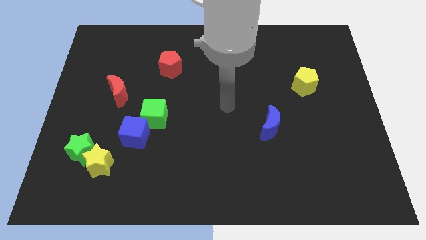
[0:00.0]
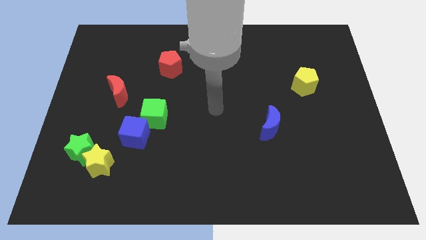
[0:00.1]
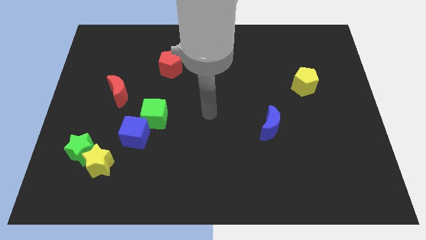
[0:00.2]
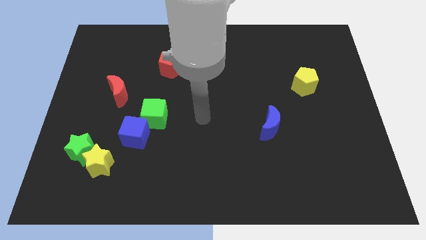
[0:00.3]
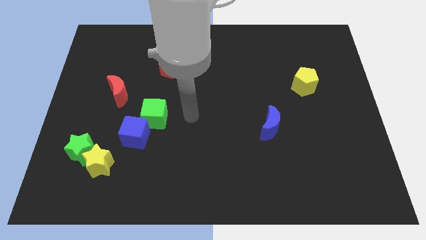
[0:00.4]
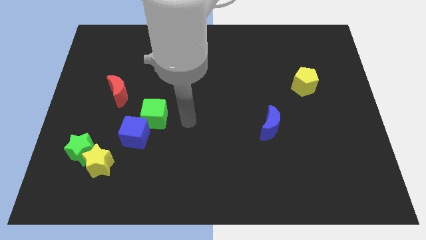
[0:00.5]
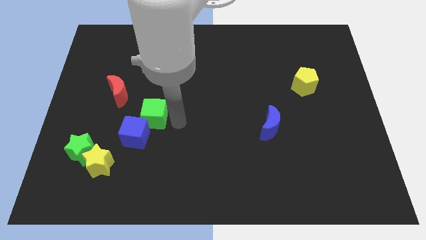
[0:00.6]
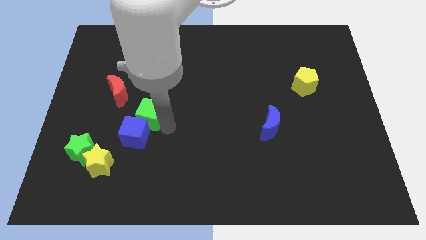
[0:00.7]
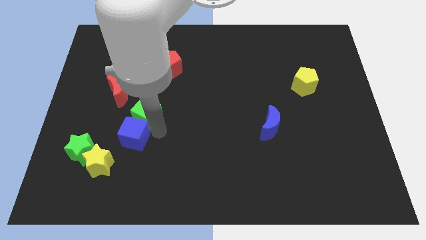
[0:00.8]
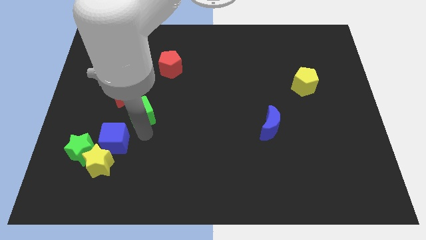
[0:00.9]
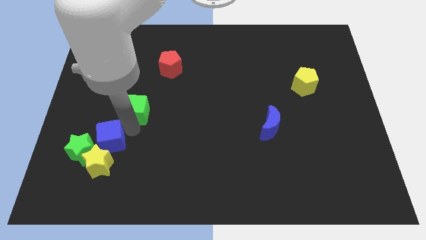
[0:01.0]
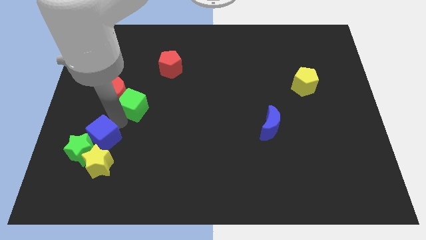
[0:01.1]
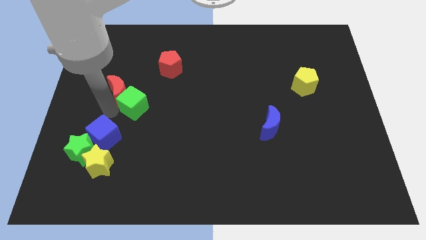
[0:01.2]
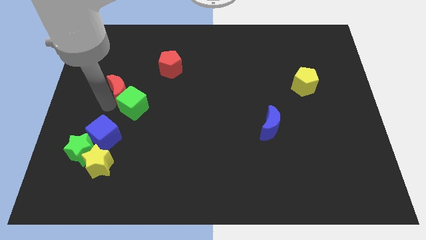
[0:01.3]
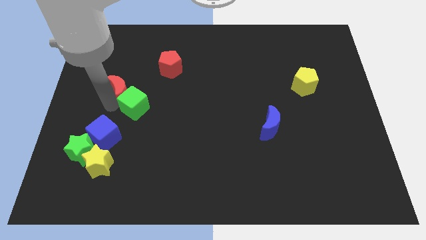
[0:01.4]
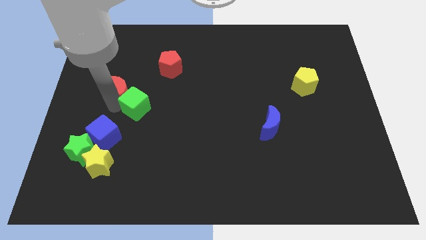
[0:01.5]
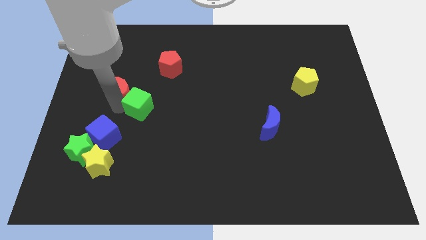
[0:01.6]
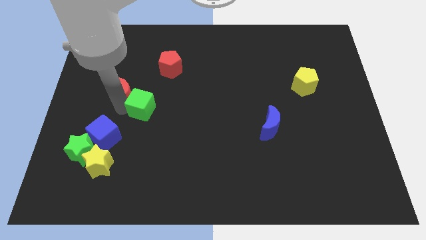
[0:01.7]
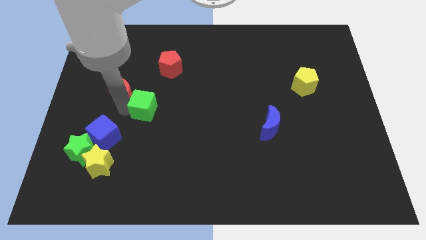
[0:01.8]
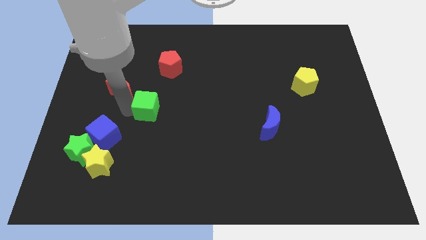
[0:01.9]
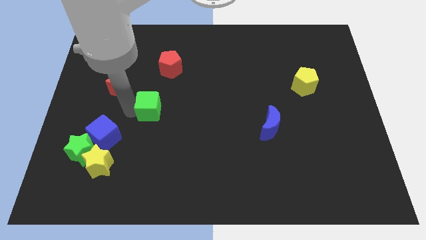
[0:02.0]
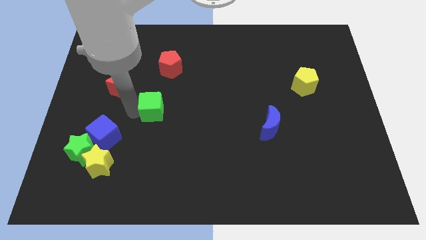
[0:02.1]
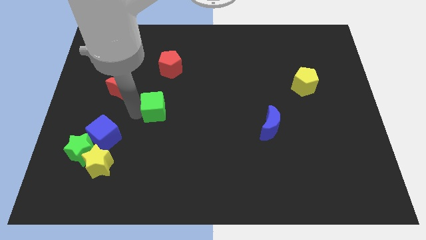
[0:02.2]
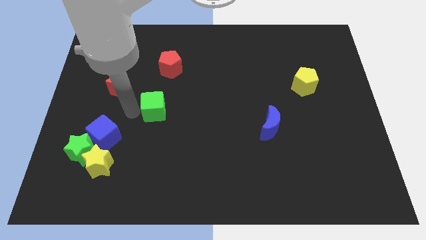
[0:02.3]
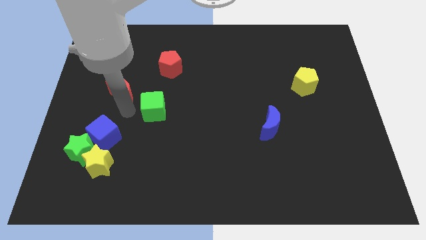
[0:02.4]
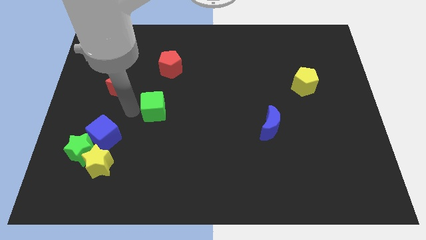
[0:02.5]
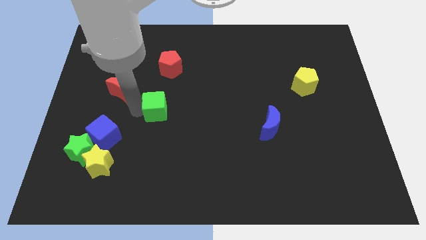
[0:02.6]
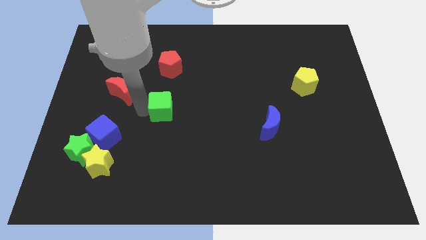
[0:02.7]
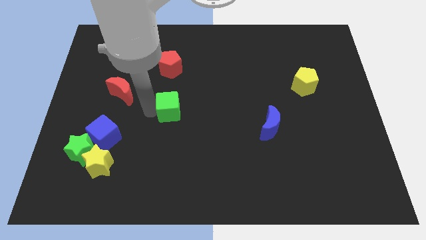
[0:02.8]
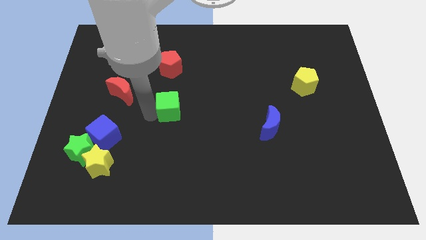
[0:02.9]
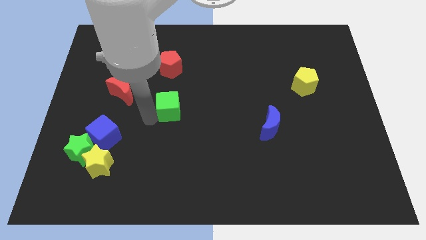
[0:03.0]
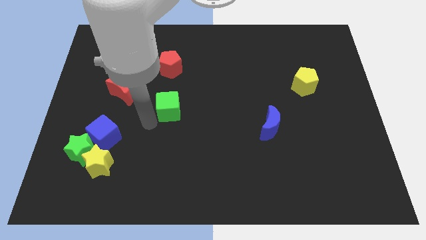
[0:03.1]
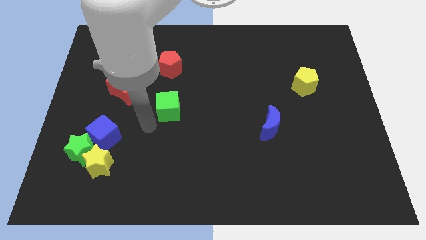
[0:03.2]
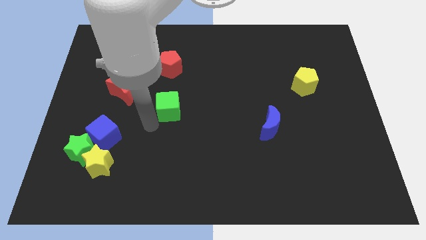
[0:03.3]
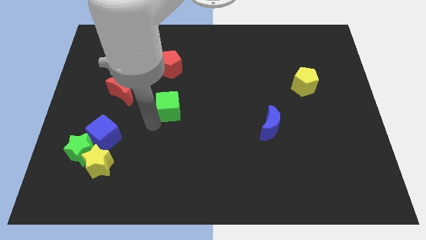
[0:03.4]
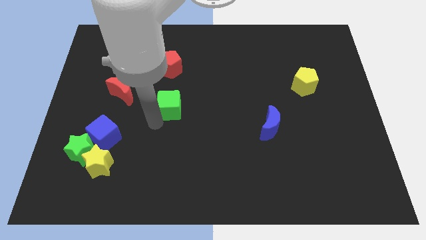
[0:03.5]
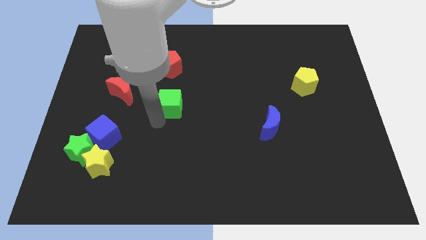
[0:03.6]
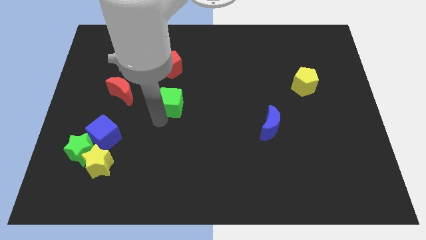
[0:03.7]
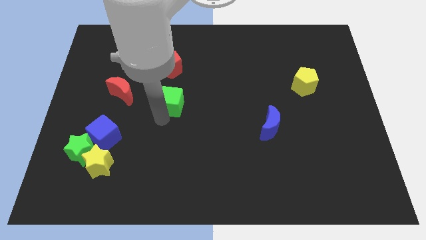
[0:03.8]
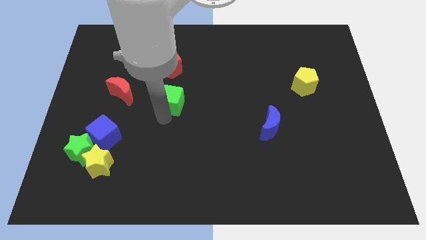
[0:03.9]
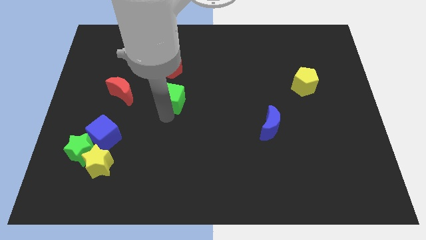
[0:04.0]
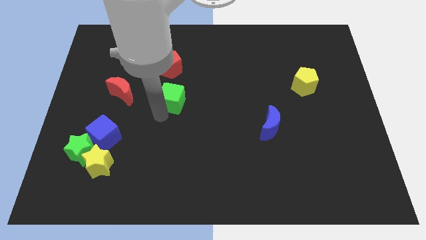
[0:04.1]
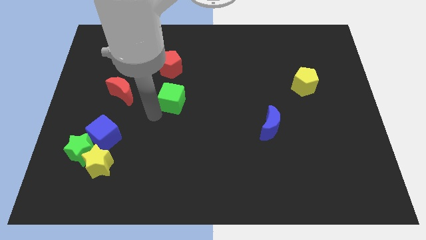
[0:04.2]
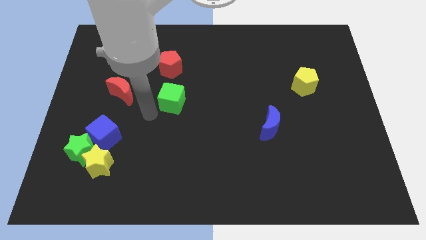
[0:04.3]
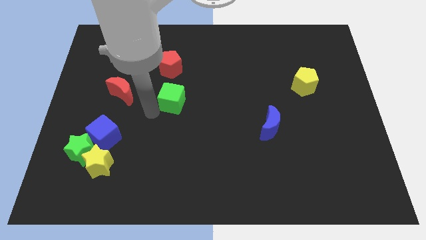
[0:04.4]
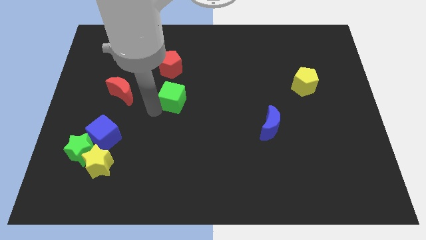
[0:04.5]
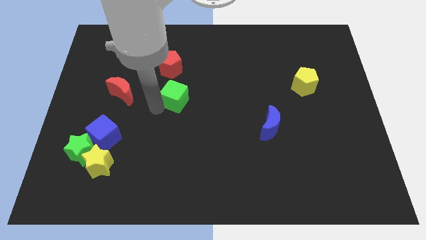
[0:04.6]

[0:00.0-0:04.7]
slide the green cube a little bit up and to the right

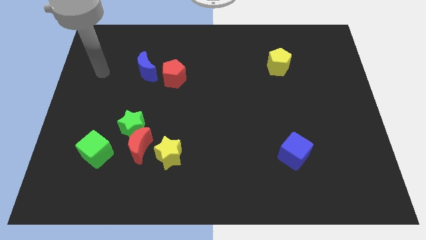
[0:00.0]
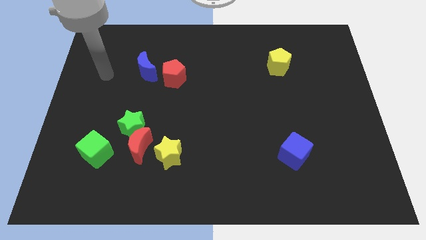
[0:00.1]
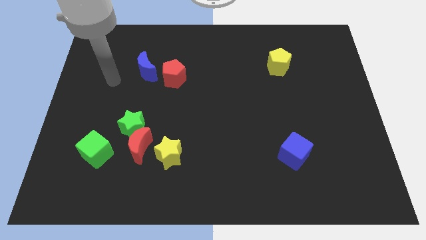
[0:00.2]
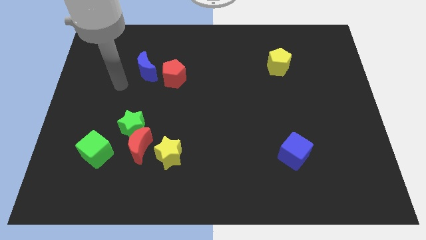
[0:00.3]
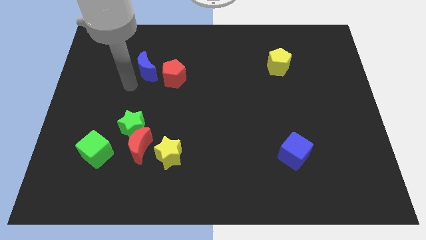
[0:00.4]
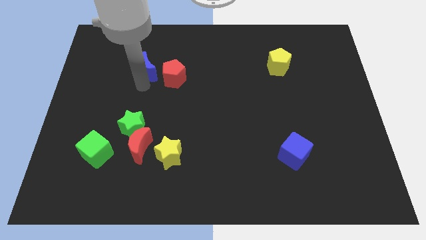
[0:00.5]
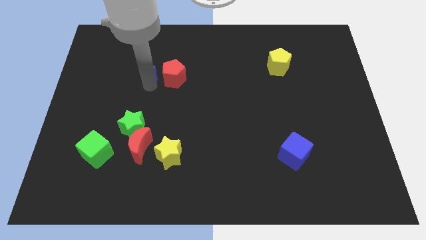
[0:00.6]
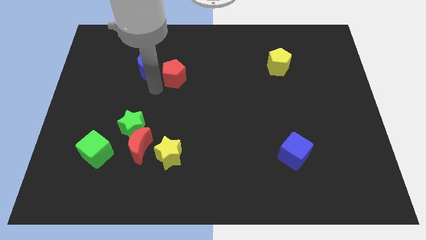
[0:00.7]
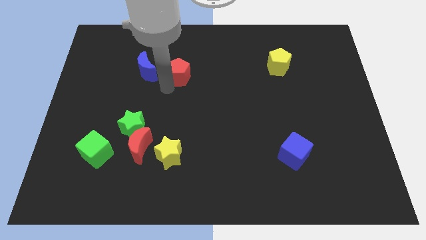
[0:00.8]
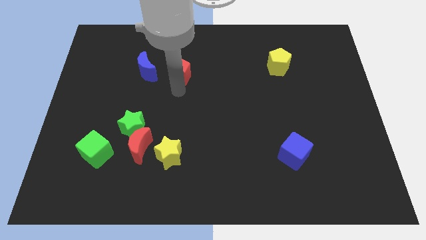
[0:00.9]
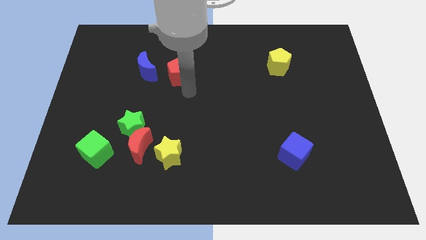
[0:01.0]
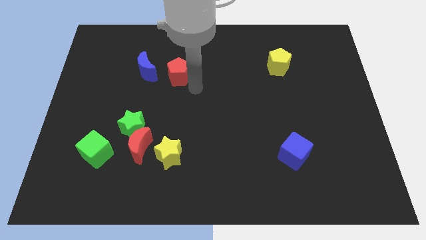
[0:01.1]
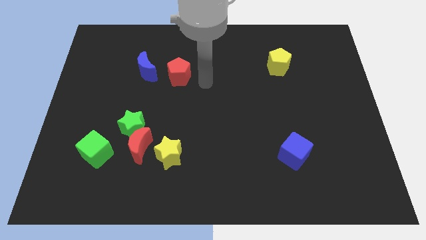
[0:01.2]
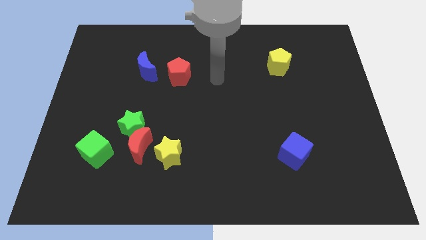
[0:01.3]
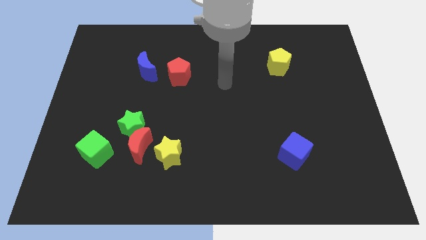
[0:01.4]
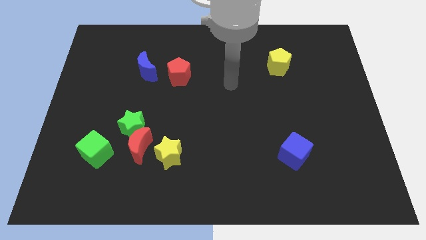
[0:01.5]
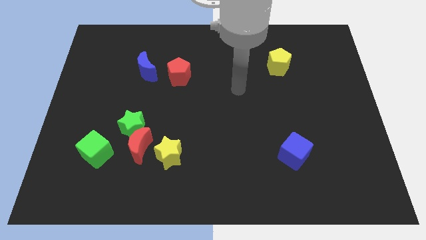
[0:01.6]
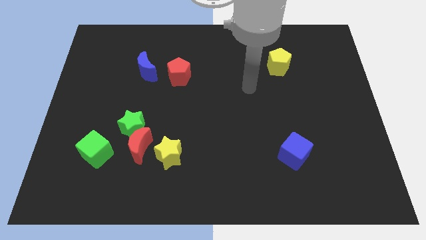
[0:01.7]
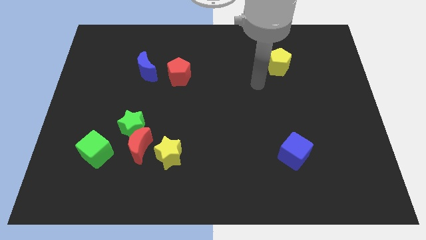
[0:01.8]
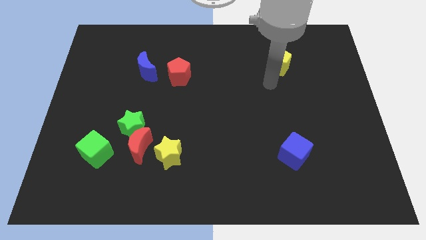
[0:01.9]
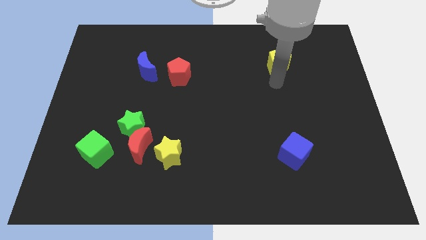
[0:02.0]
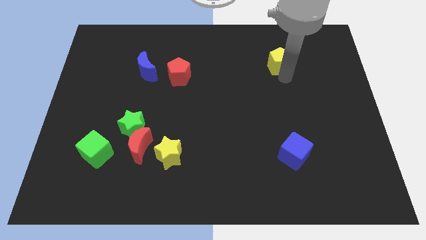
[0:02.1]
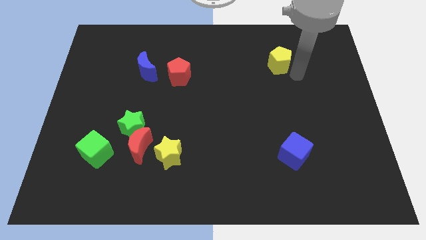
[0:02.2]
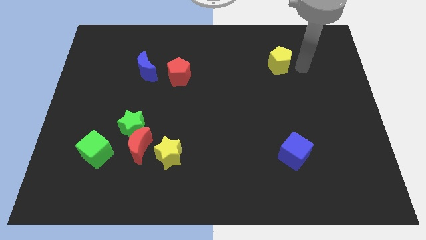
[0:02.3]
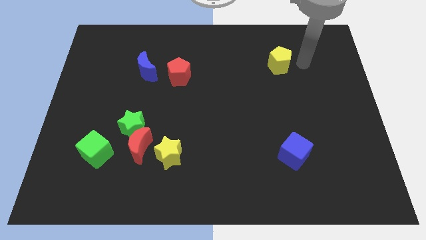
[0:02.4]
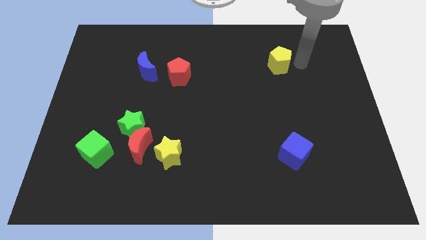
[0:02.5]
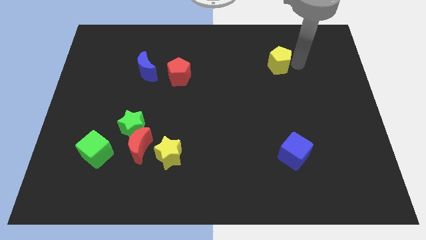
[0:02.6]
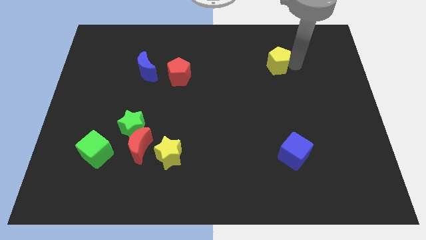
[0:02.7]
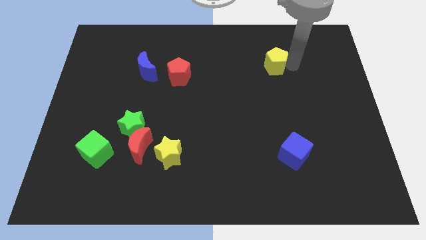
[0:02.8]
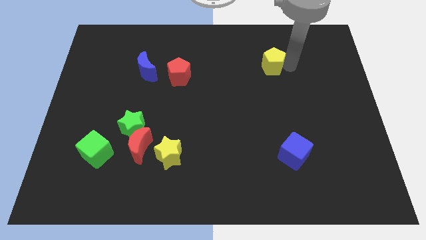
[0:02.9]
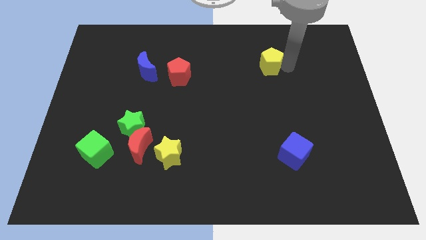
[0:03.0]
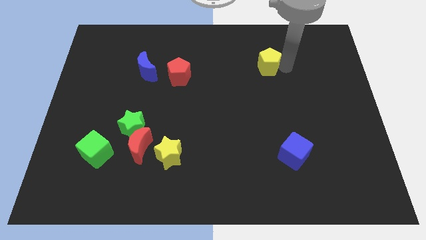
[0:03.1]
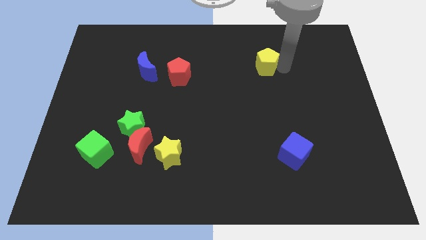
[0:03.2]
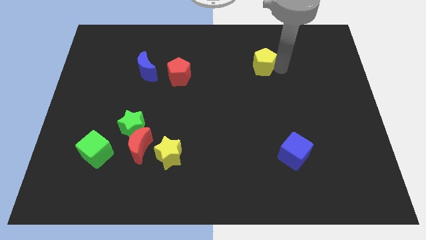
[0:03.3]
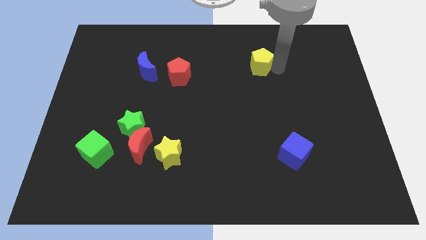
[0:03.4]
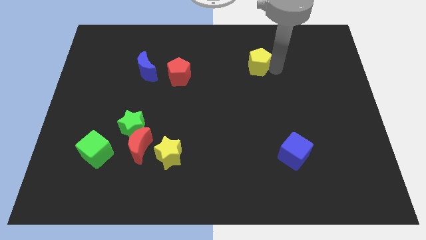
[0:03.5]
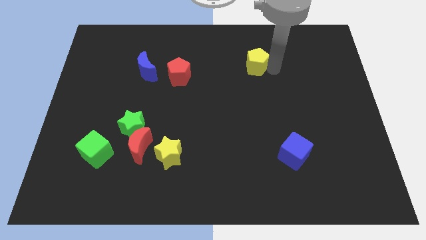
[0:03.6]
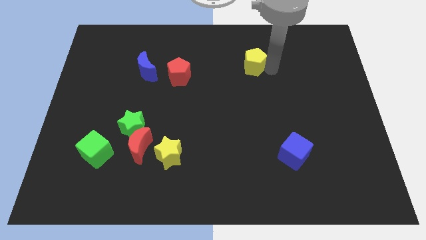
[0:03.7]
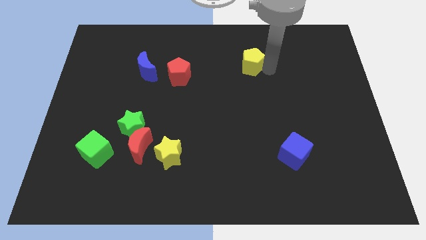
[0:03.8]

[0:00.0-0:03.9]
slightly move the yellow pentagon left
